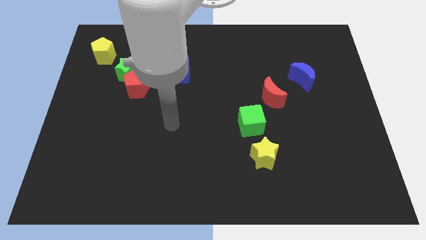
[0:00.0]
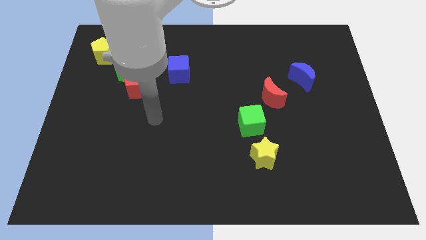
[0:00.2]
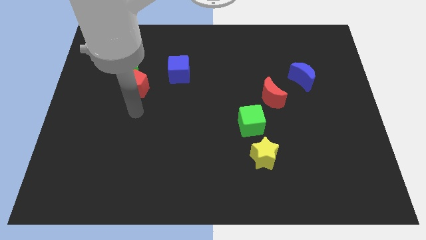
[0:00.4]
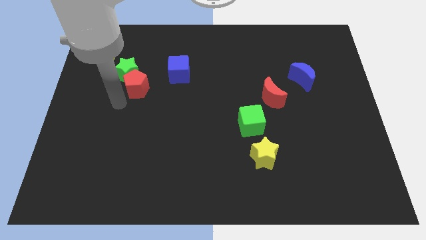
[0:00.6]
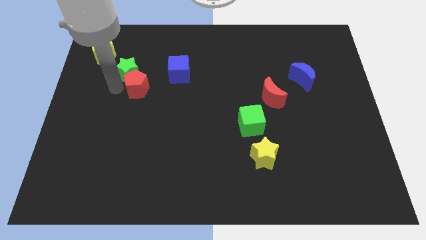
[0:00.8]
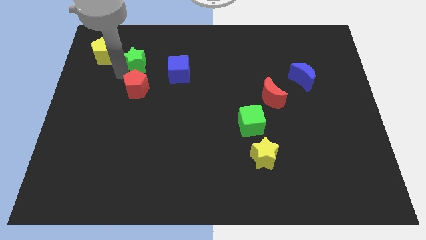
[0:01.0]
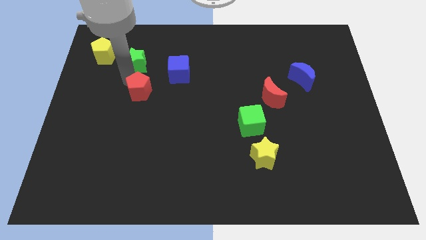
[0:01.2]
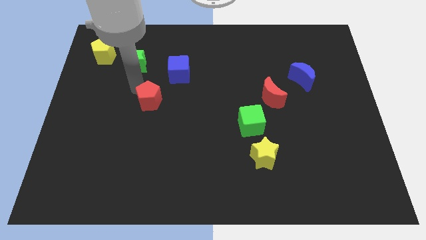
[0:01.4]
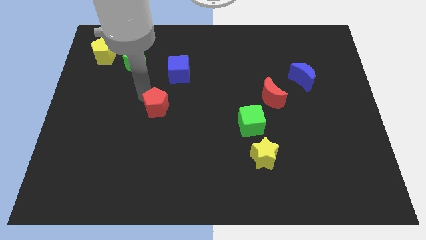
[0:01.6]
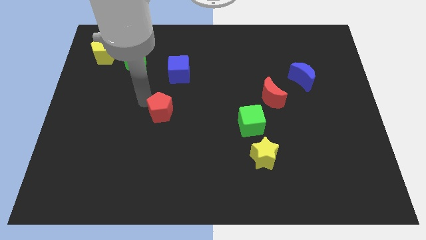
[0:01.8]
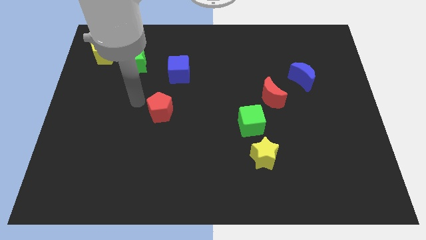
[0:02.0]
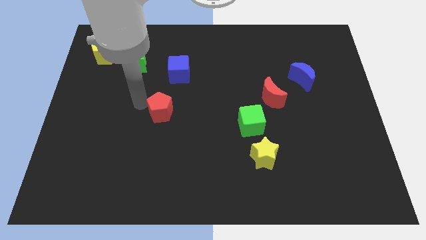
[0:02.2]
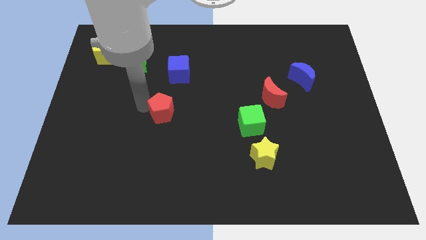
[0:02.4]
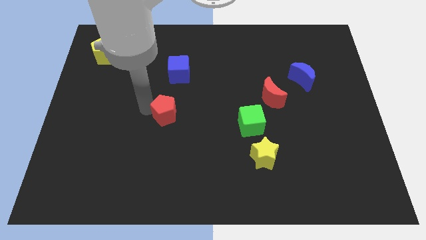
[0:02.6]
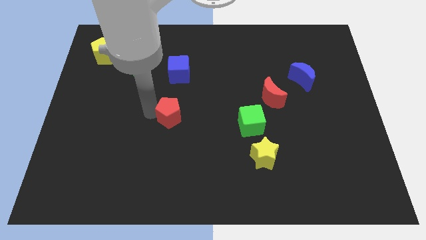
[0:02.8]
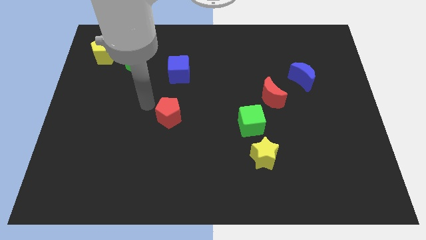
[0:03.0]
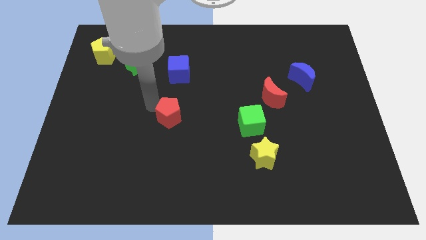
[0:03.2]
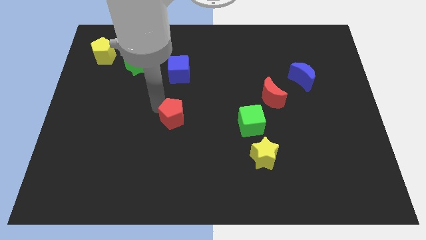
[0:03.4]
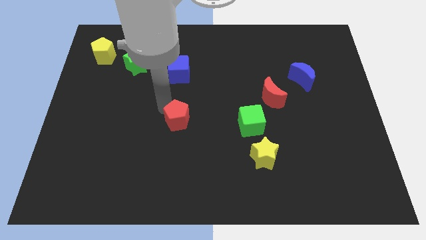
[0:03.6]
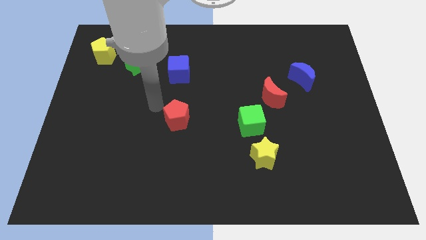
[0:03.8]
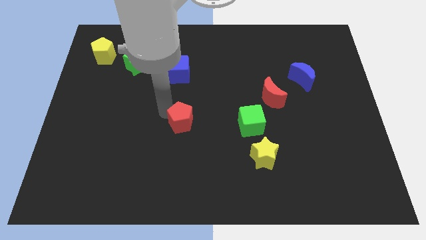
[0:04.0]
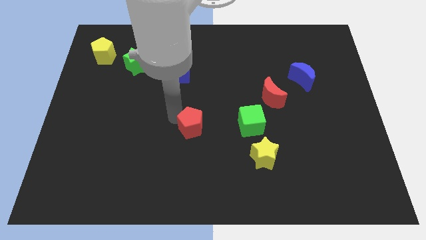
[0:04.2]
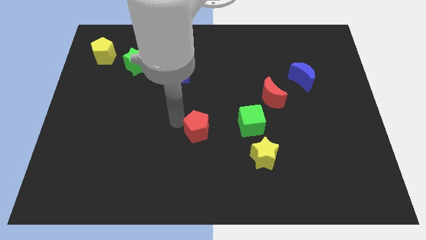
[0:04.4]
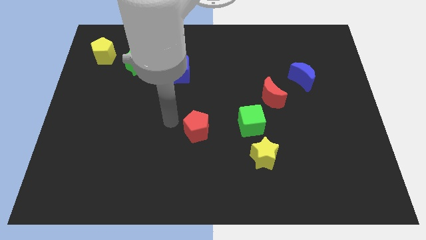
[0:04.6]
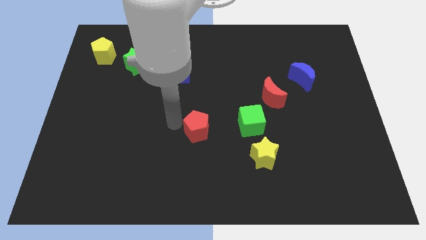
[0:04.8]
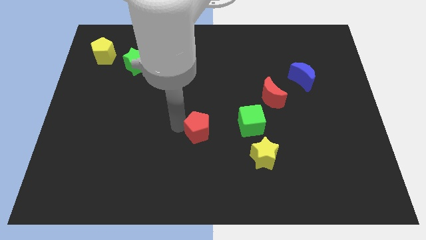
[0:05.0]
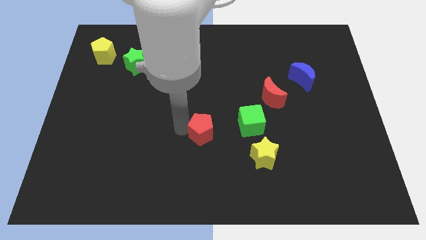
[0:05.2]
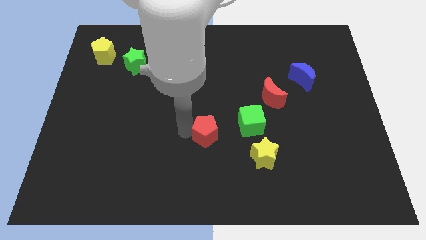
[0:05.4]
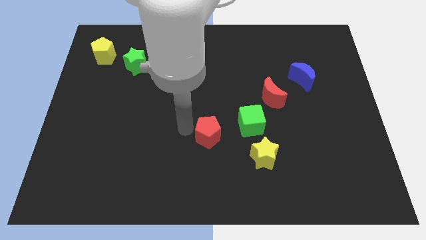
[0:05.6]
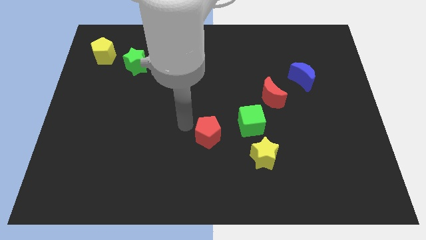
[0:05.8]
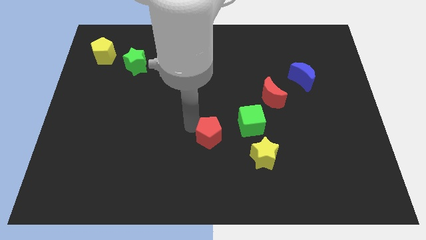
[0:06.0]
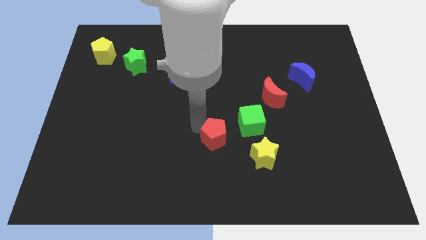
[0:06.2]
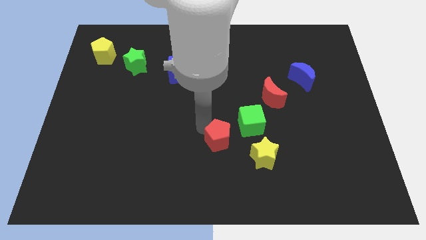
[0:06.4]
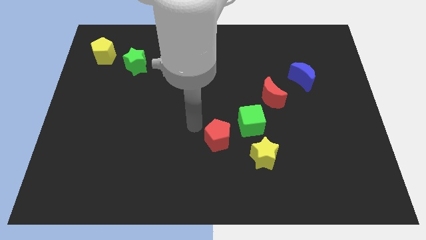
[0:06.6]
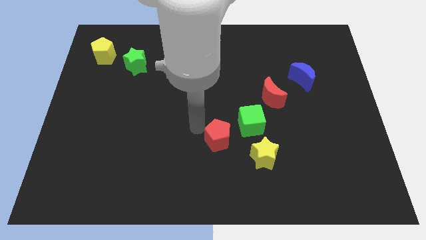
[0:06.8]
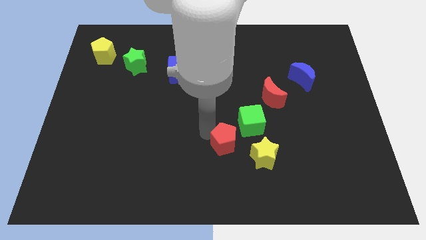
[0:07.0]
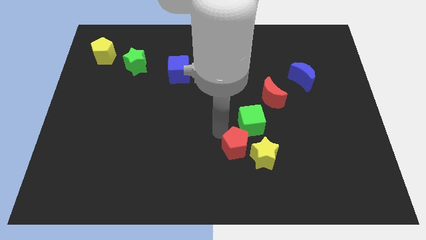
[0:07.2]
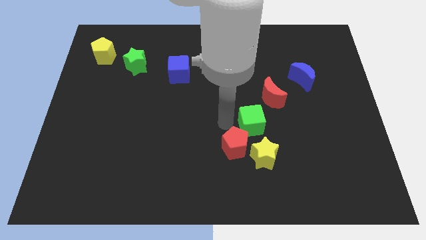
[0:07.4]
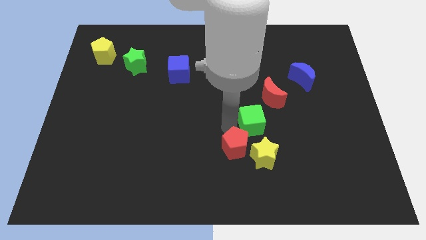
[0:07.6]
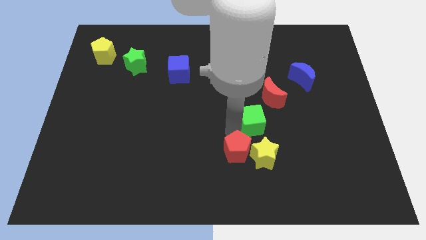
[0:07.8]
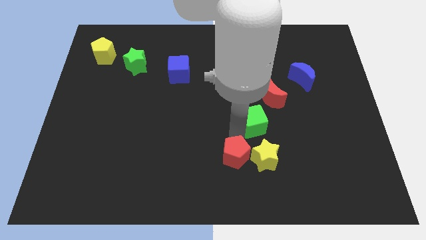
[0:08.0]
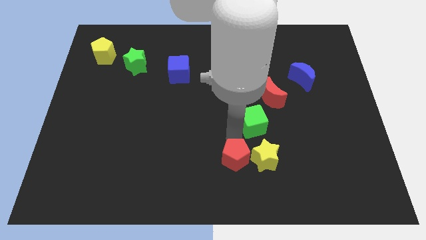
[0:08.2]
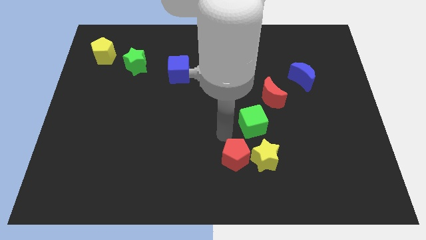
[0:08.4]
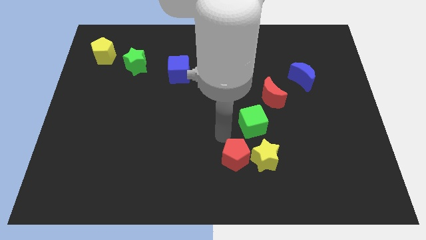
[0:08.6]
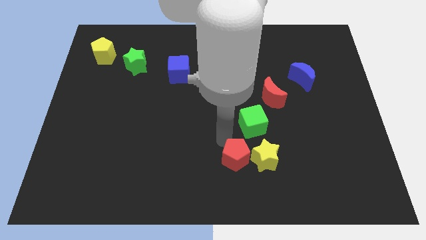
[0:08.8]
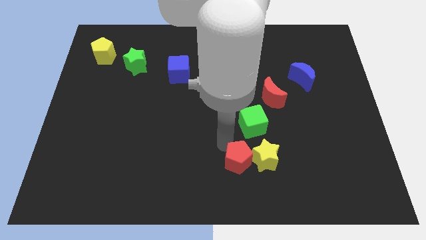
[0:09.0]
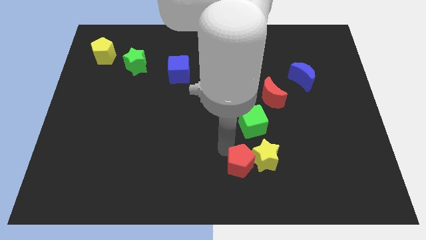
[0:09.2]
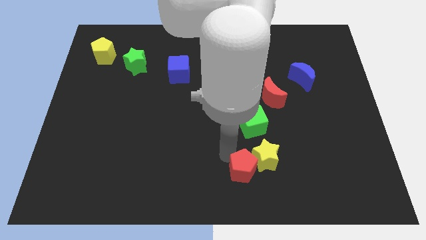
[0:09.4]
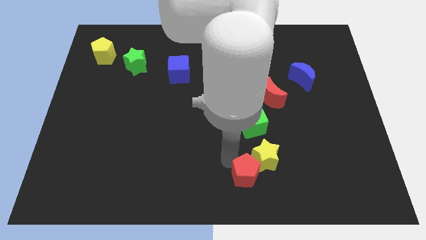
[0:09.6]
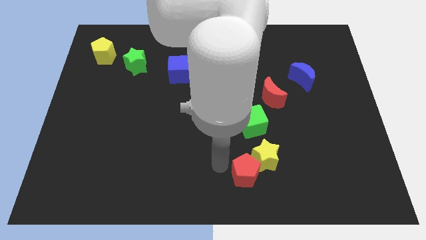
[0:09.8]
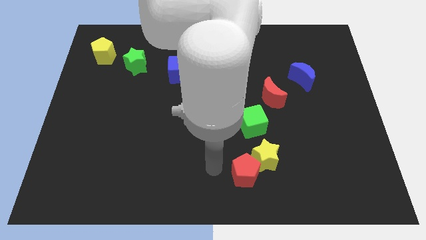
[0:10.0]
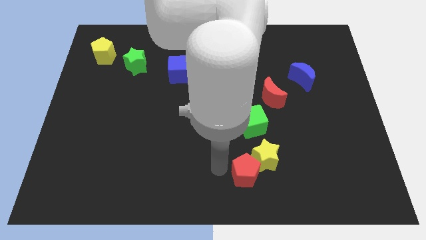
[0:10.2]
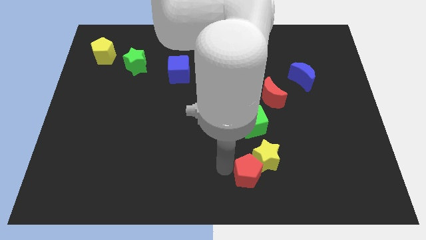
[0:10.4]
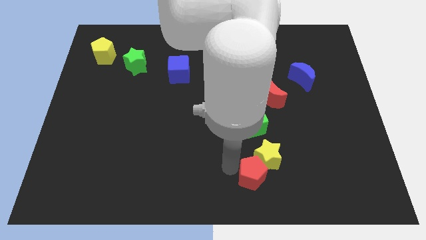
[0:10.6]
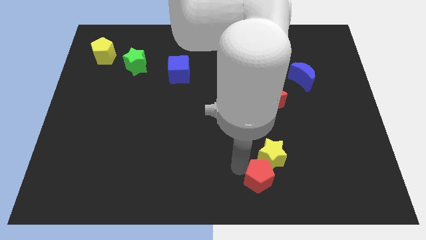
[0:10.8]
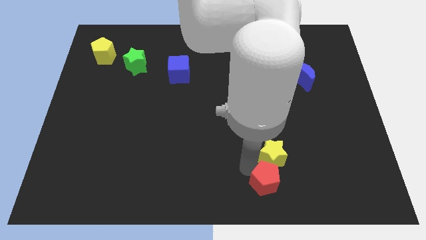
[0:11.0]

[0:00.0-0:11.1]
push the red pentagon to the bottom right of the yellow star

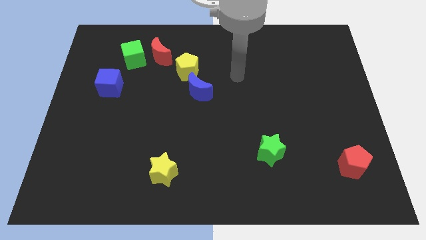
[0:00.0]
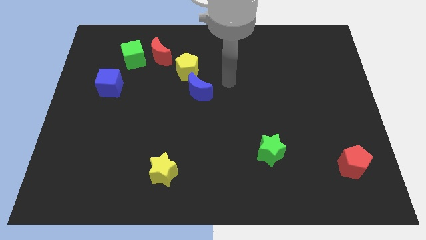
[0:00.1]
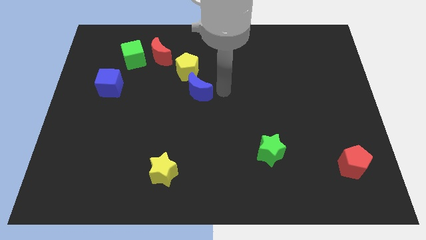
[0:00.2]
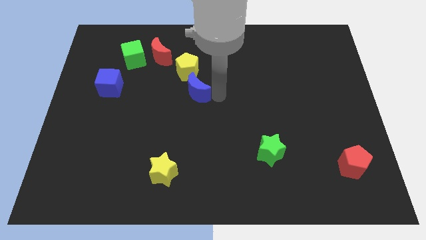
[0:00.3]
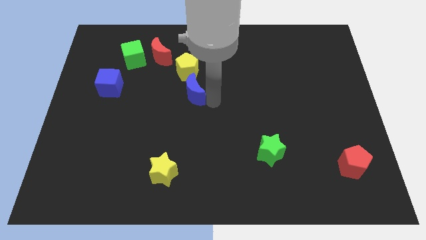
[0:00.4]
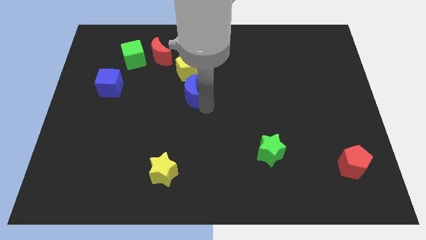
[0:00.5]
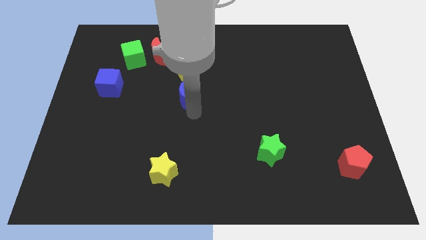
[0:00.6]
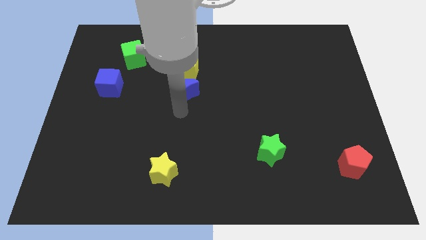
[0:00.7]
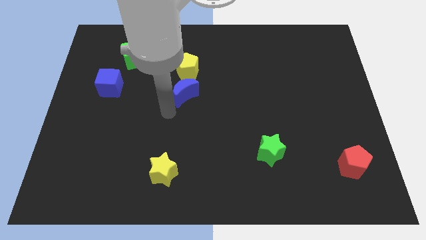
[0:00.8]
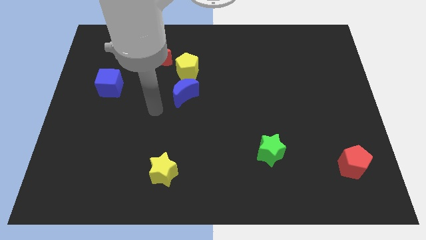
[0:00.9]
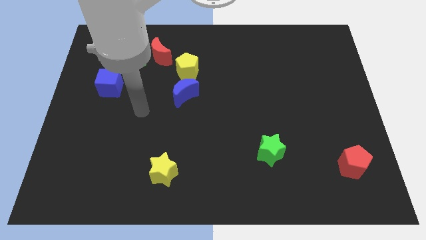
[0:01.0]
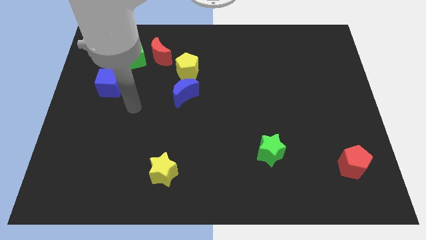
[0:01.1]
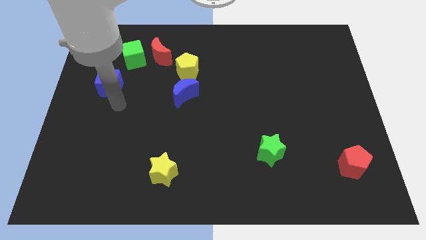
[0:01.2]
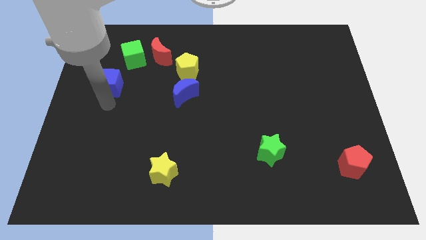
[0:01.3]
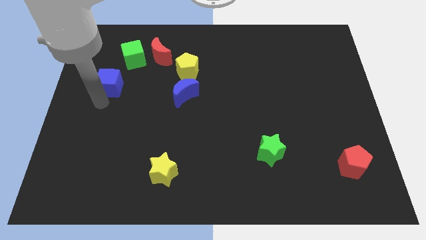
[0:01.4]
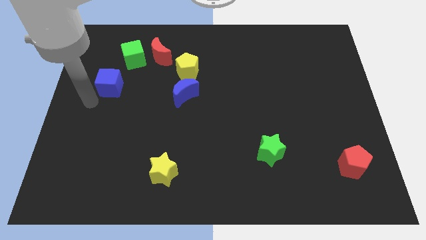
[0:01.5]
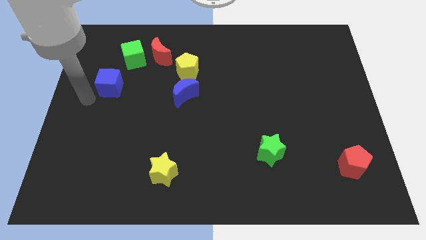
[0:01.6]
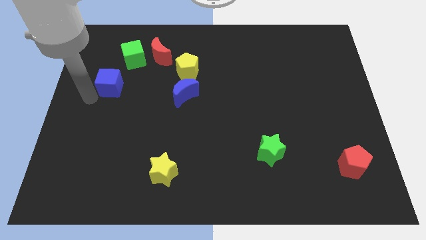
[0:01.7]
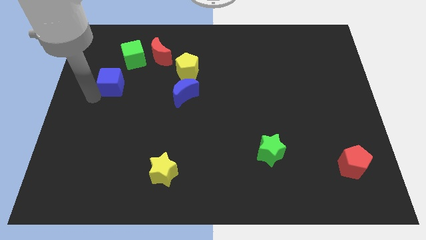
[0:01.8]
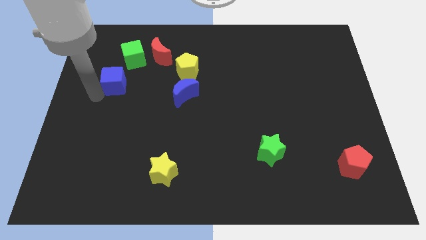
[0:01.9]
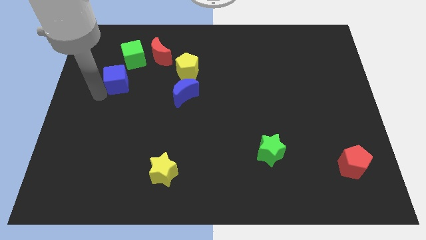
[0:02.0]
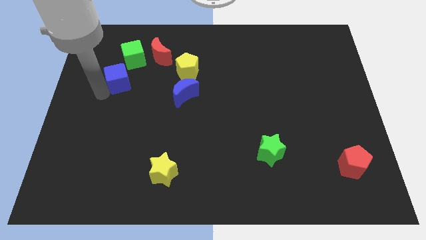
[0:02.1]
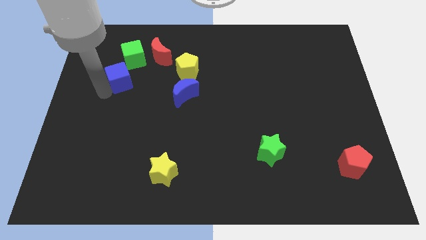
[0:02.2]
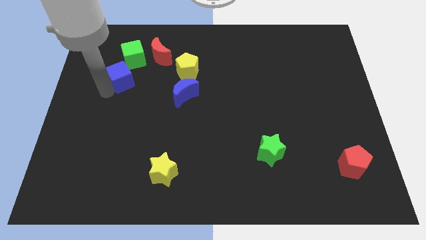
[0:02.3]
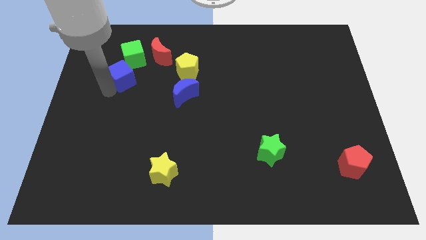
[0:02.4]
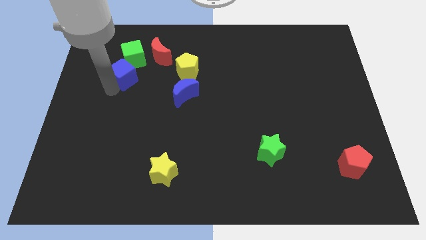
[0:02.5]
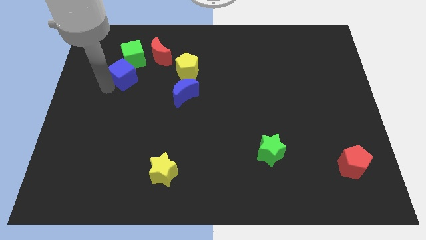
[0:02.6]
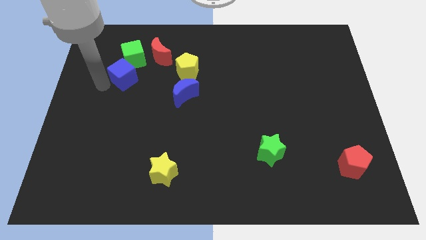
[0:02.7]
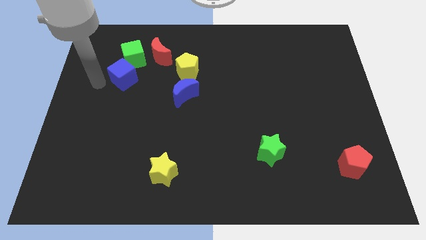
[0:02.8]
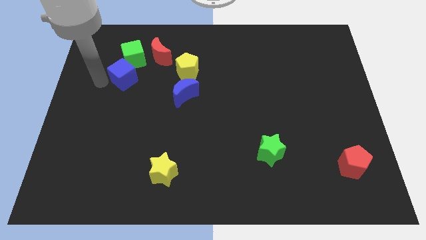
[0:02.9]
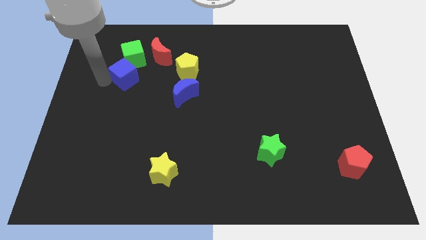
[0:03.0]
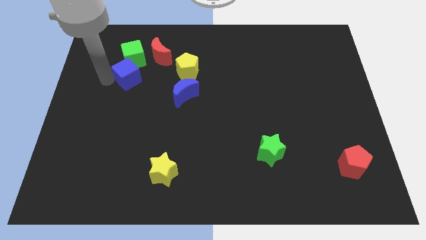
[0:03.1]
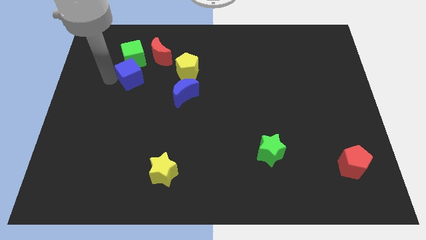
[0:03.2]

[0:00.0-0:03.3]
move the blue cube diagonally down and to the right of the green cube
